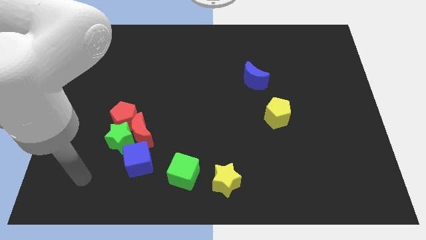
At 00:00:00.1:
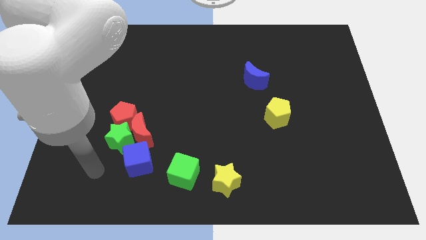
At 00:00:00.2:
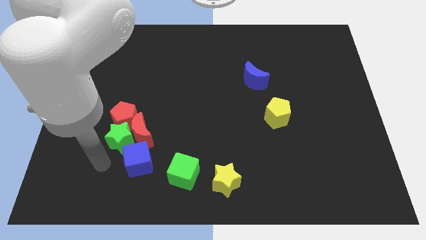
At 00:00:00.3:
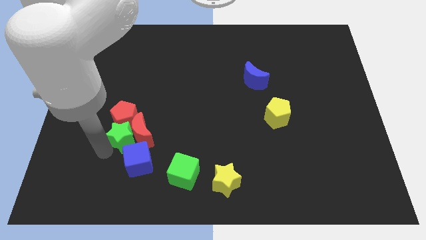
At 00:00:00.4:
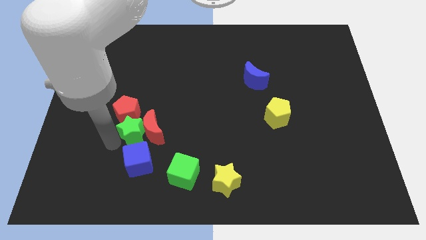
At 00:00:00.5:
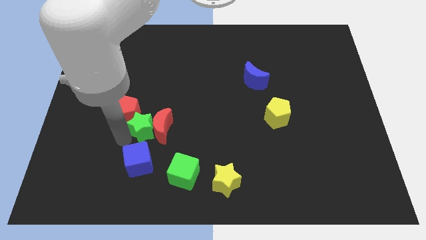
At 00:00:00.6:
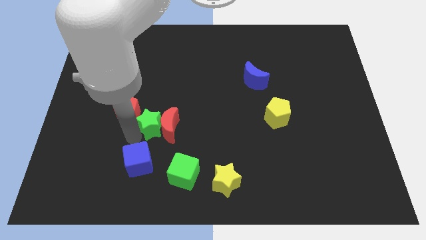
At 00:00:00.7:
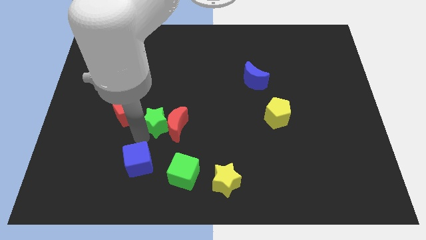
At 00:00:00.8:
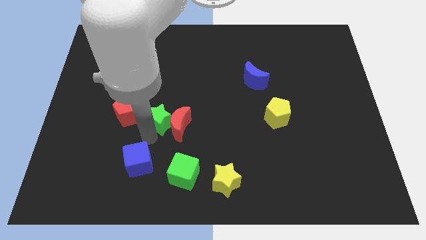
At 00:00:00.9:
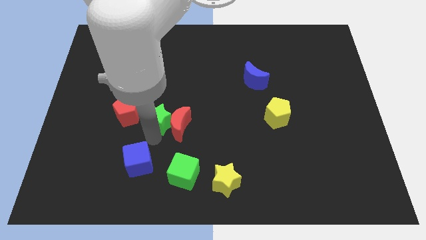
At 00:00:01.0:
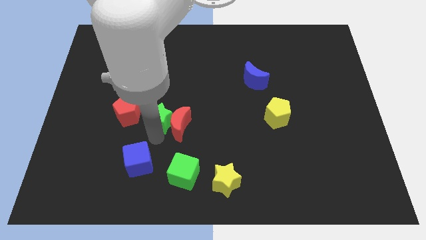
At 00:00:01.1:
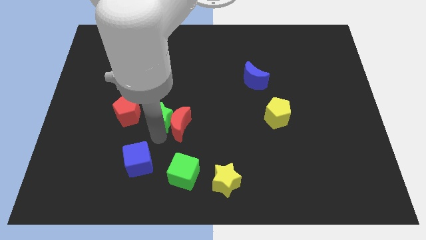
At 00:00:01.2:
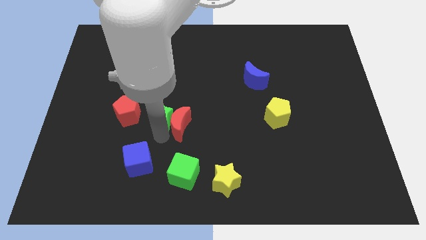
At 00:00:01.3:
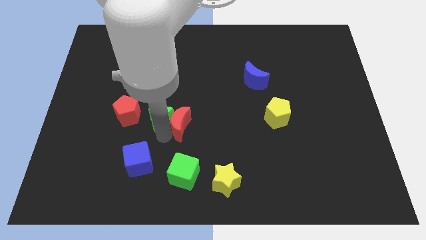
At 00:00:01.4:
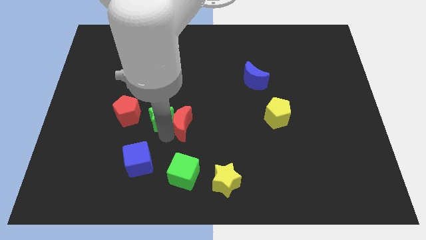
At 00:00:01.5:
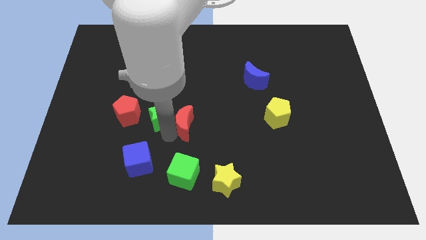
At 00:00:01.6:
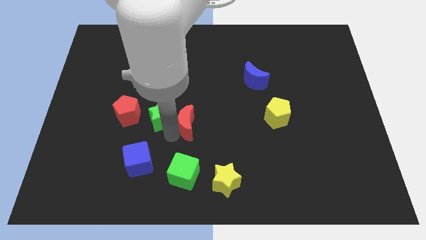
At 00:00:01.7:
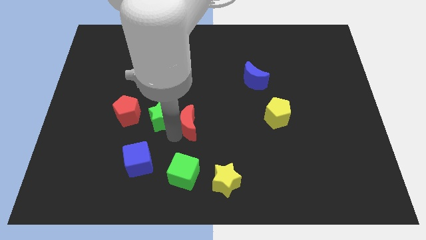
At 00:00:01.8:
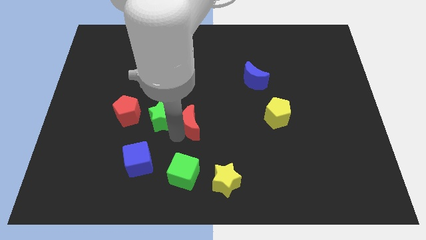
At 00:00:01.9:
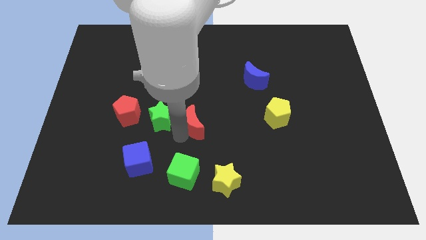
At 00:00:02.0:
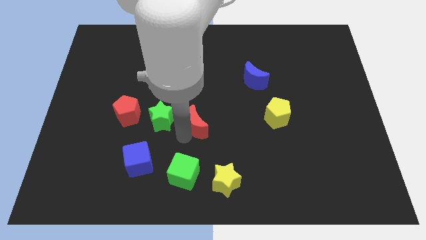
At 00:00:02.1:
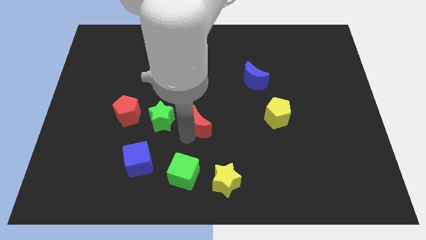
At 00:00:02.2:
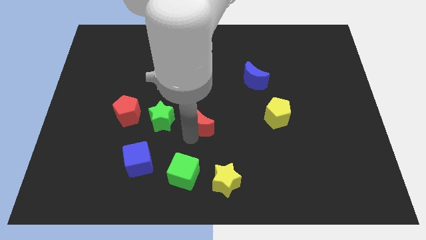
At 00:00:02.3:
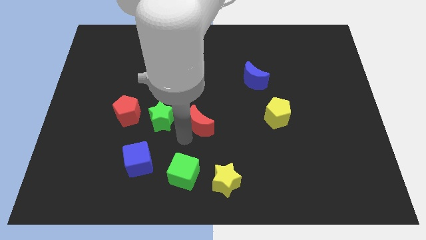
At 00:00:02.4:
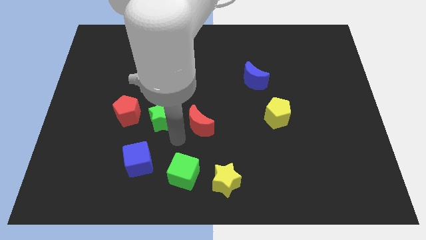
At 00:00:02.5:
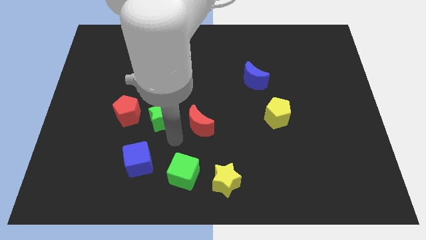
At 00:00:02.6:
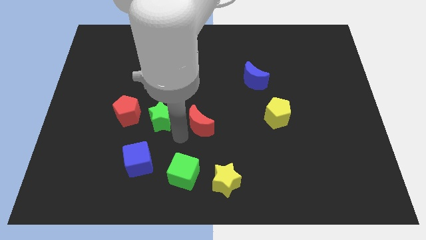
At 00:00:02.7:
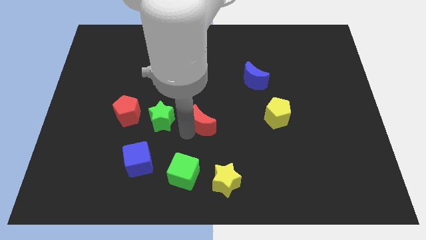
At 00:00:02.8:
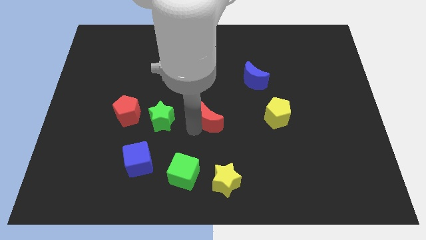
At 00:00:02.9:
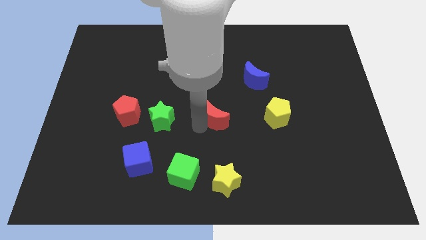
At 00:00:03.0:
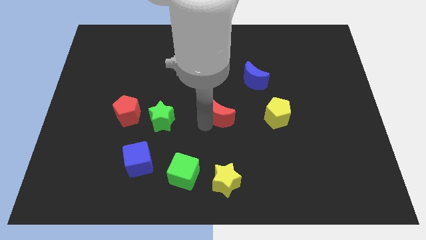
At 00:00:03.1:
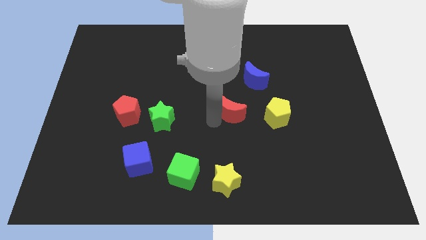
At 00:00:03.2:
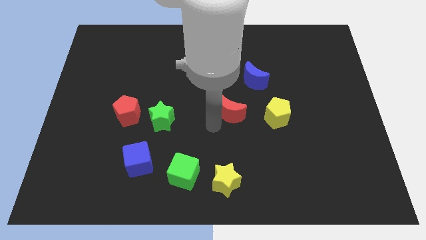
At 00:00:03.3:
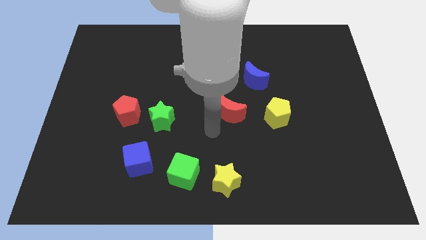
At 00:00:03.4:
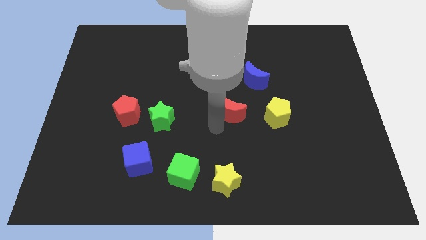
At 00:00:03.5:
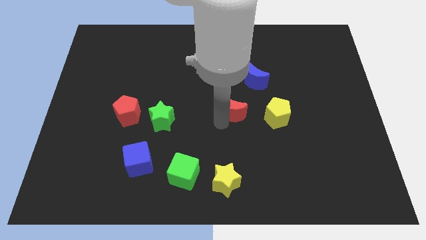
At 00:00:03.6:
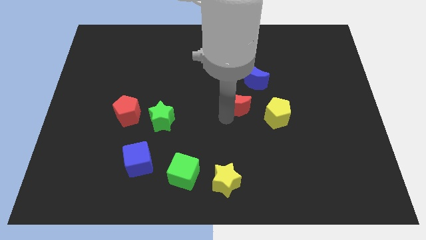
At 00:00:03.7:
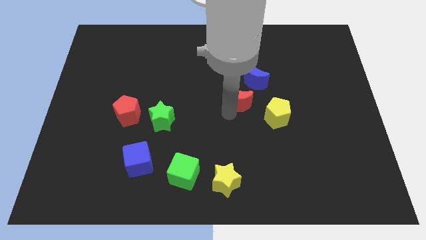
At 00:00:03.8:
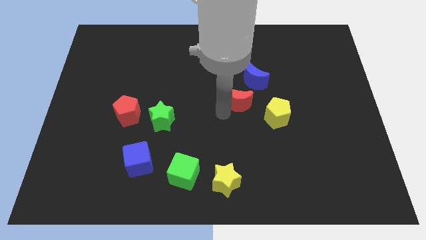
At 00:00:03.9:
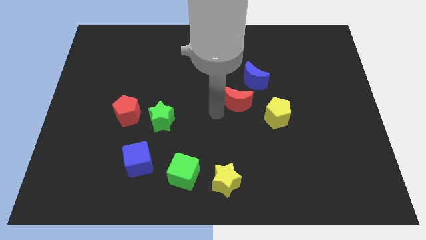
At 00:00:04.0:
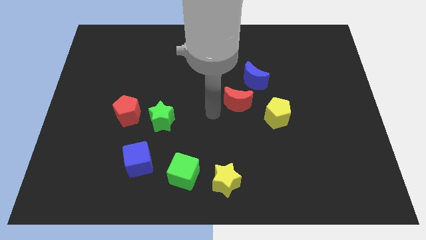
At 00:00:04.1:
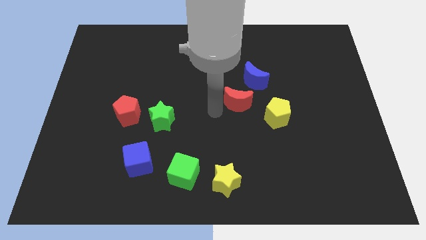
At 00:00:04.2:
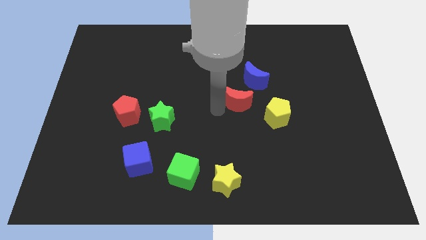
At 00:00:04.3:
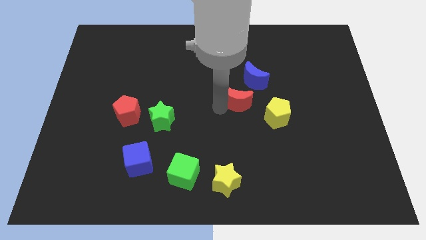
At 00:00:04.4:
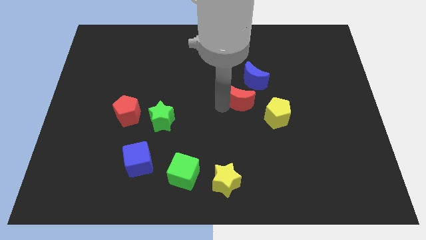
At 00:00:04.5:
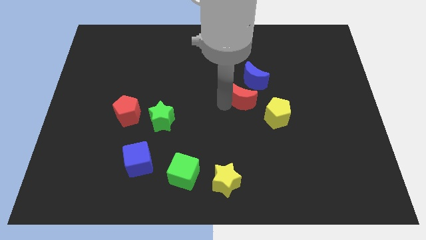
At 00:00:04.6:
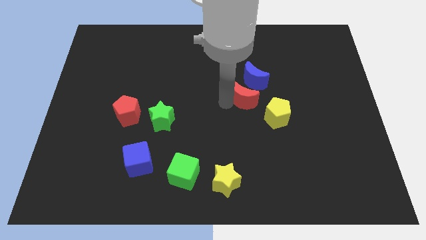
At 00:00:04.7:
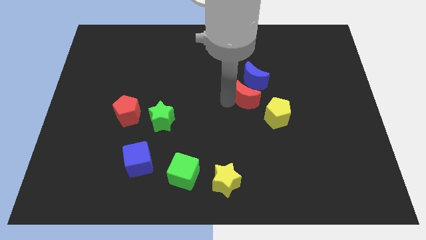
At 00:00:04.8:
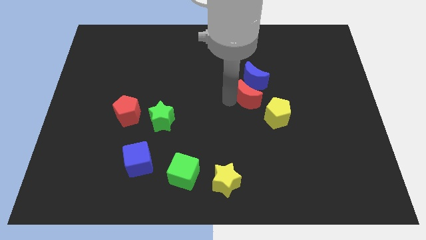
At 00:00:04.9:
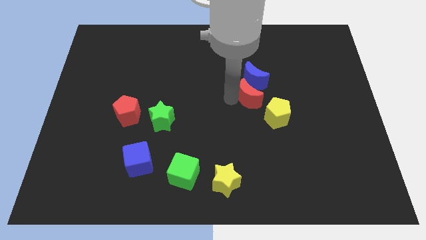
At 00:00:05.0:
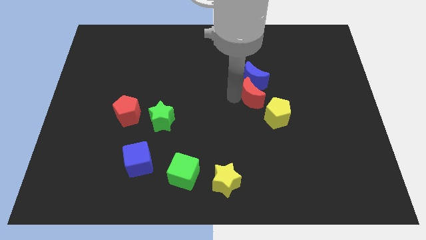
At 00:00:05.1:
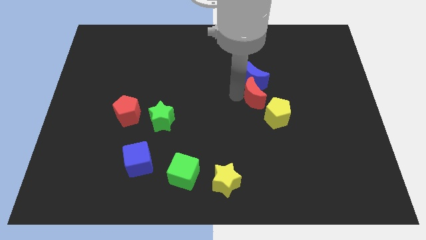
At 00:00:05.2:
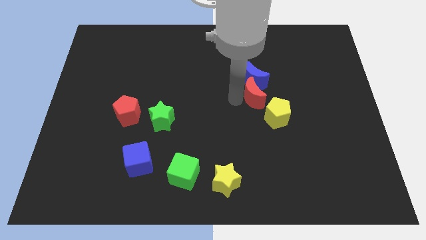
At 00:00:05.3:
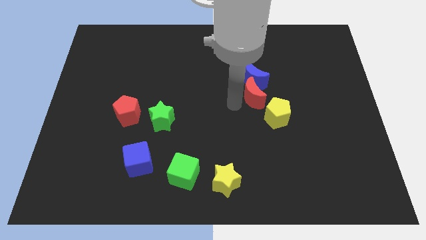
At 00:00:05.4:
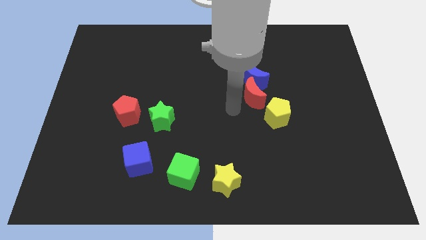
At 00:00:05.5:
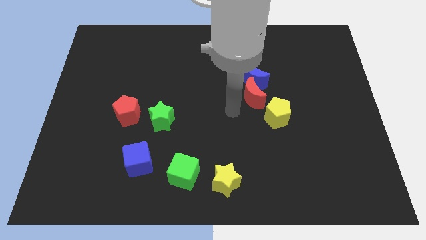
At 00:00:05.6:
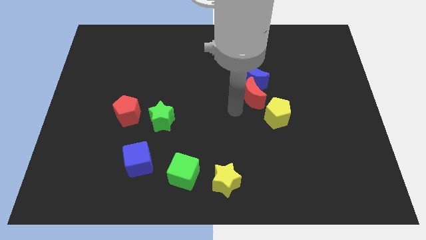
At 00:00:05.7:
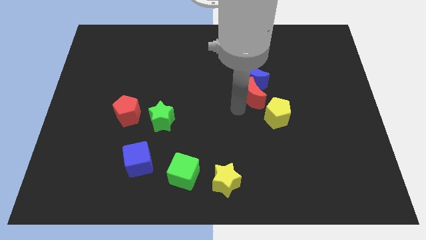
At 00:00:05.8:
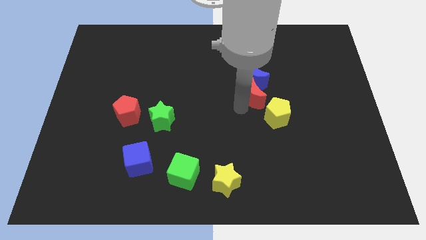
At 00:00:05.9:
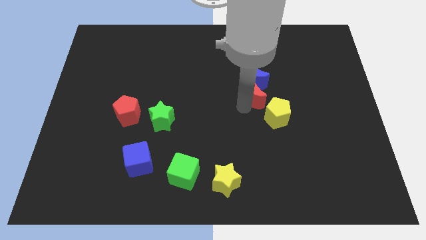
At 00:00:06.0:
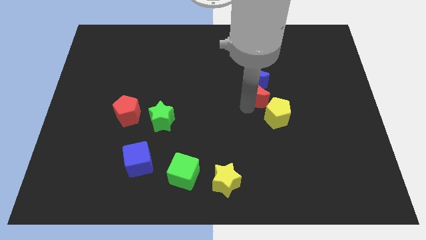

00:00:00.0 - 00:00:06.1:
push the red moon above the yellow pentagon

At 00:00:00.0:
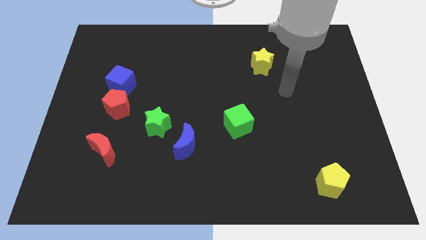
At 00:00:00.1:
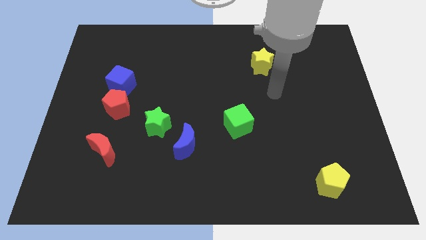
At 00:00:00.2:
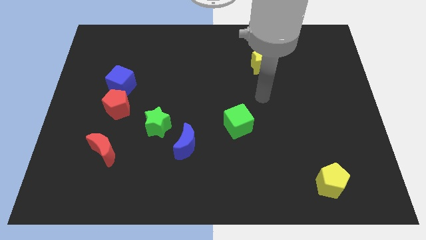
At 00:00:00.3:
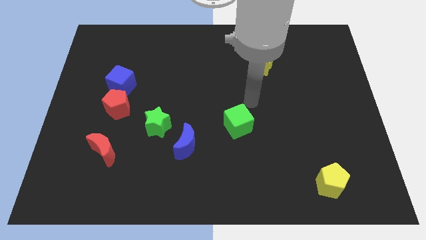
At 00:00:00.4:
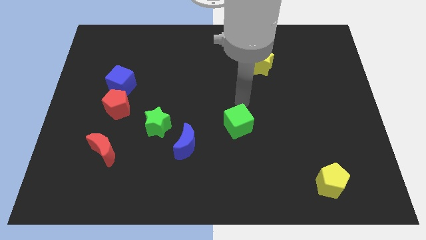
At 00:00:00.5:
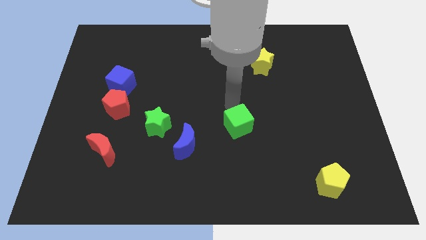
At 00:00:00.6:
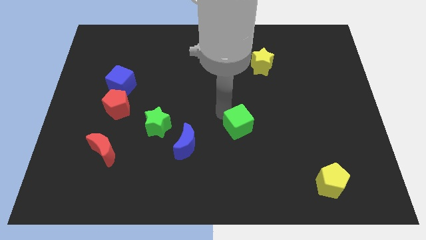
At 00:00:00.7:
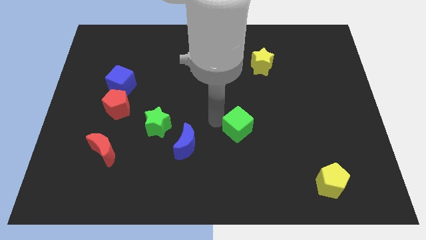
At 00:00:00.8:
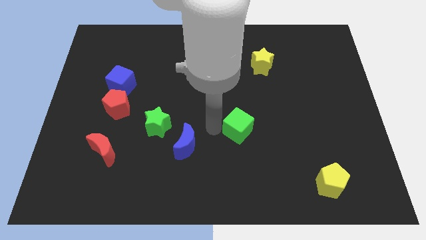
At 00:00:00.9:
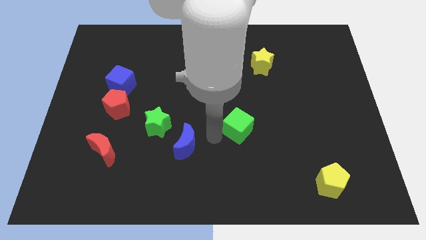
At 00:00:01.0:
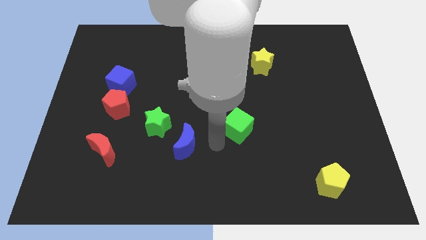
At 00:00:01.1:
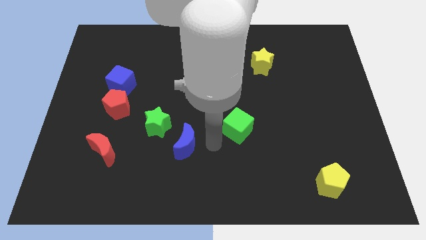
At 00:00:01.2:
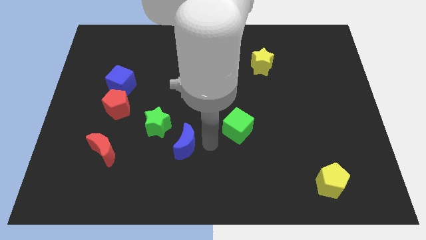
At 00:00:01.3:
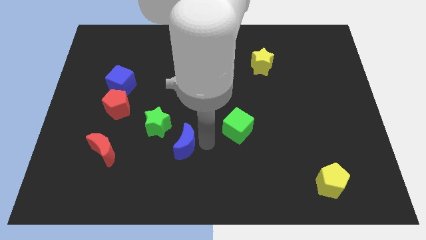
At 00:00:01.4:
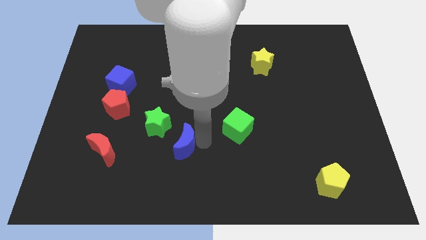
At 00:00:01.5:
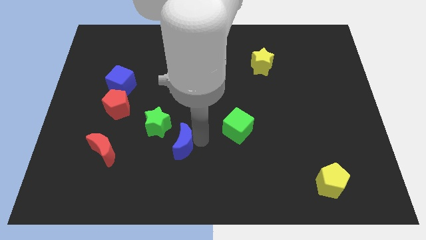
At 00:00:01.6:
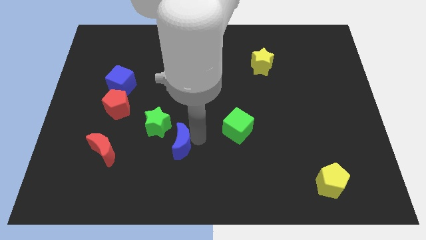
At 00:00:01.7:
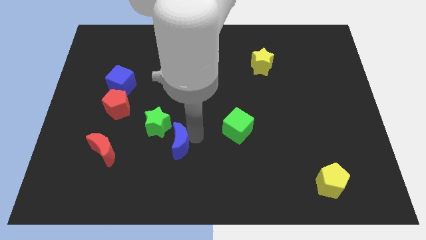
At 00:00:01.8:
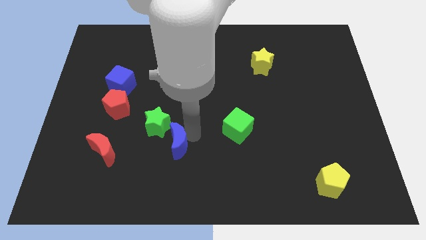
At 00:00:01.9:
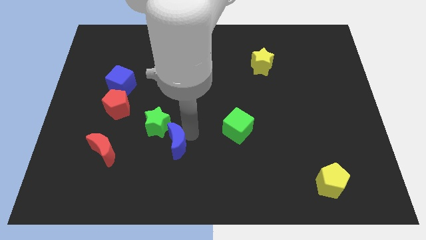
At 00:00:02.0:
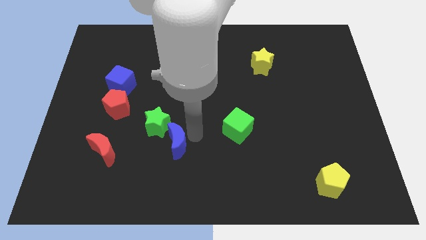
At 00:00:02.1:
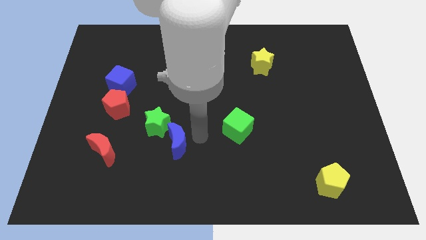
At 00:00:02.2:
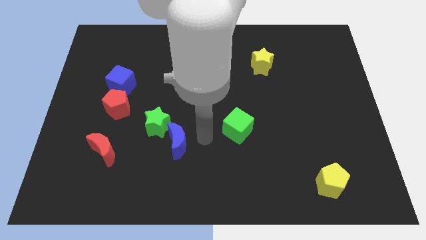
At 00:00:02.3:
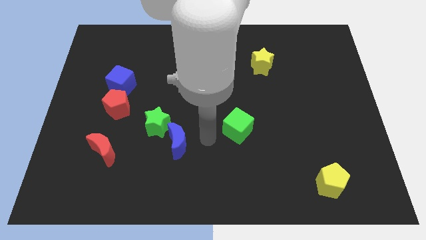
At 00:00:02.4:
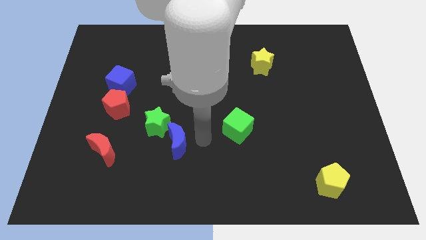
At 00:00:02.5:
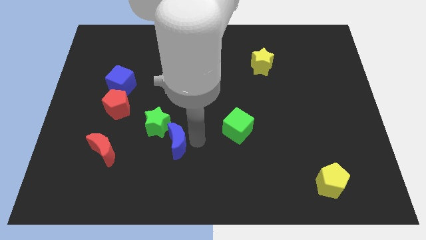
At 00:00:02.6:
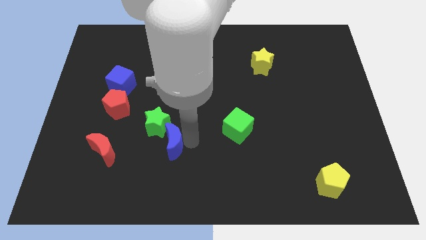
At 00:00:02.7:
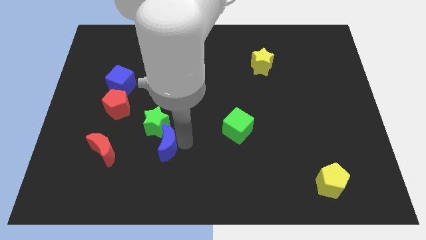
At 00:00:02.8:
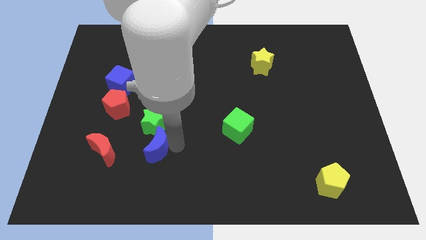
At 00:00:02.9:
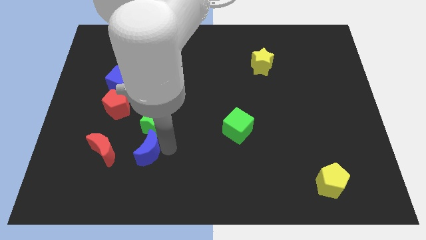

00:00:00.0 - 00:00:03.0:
push the blue moon to the bottom left side of the green star
